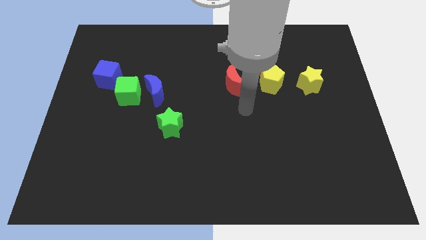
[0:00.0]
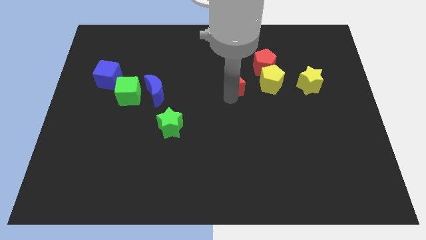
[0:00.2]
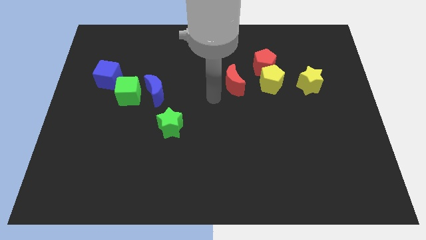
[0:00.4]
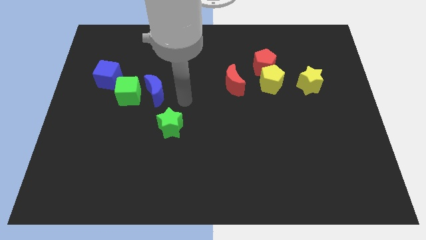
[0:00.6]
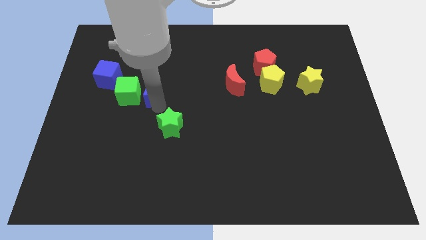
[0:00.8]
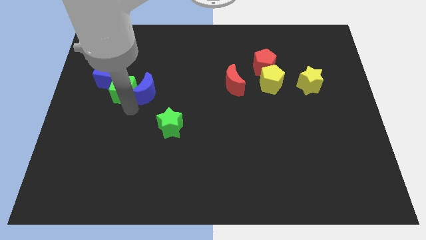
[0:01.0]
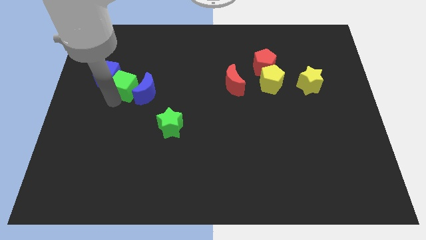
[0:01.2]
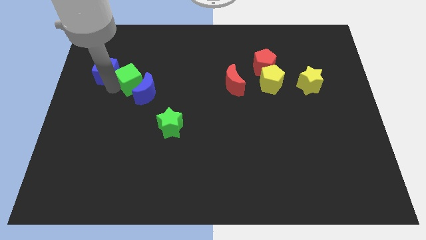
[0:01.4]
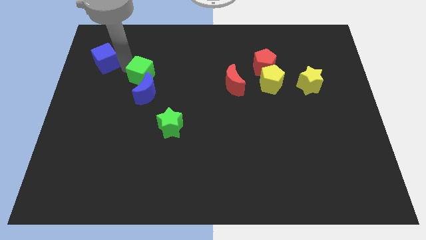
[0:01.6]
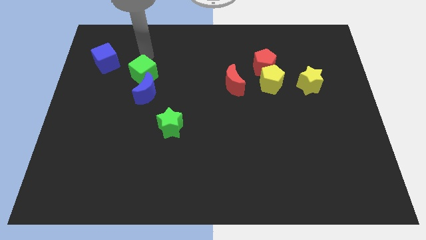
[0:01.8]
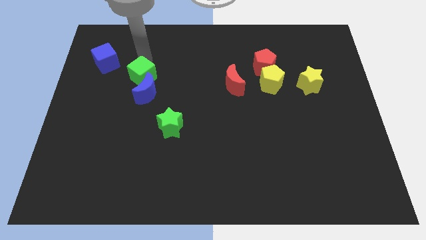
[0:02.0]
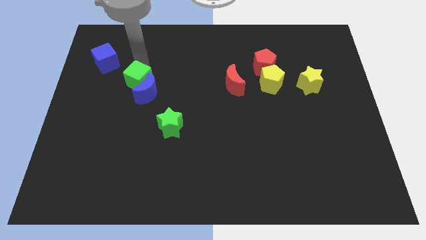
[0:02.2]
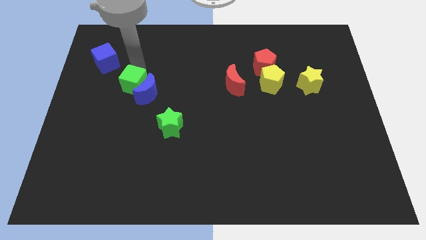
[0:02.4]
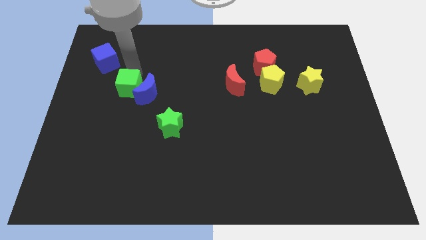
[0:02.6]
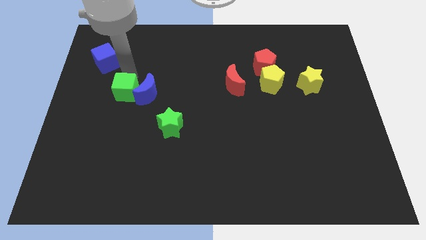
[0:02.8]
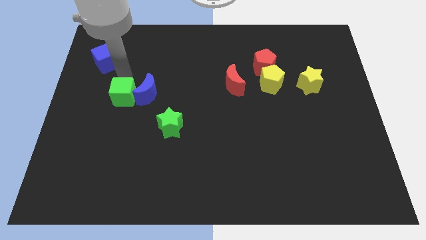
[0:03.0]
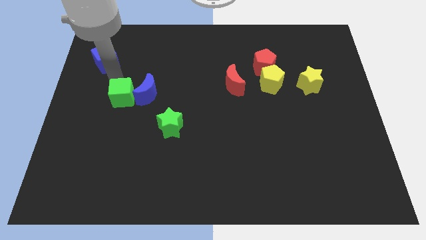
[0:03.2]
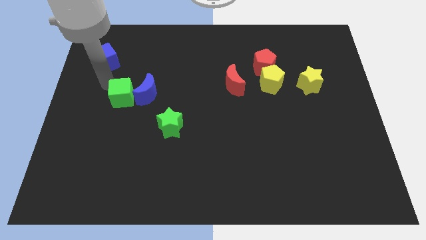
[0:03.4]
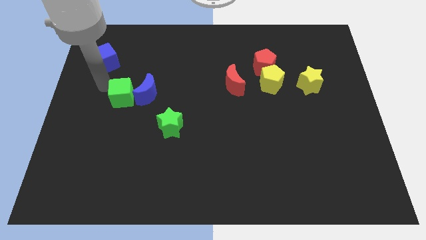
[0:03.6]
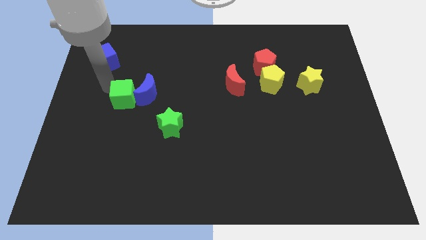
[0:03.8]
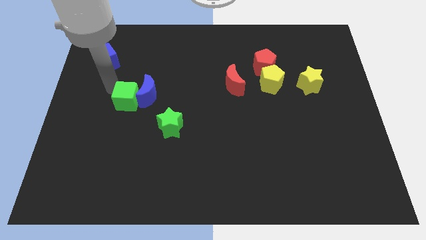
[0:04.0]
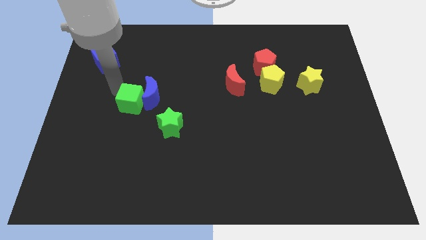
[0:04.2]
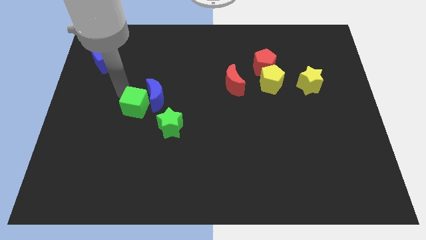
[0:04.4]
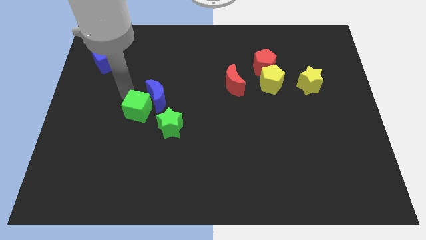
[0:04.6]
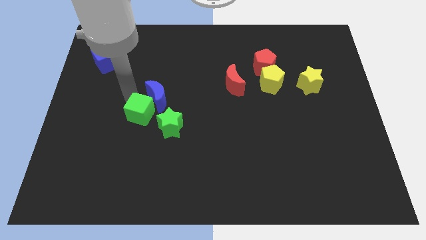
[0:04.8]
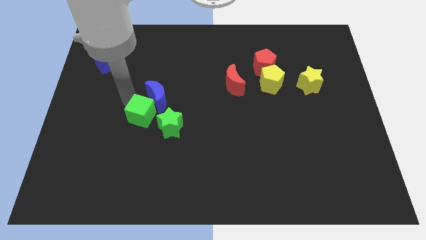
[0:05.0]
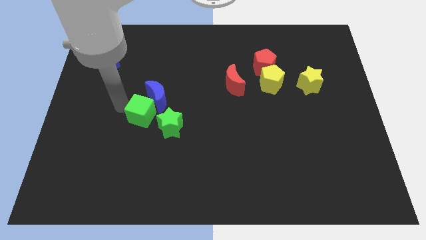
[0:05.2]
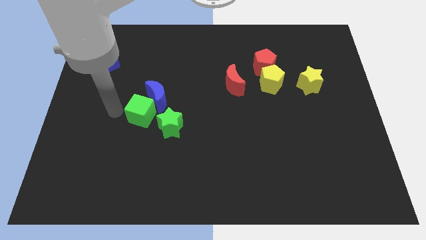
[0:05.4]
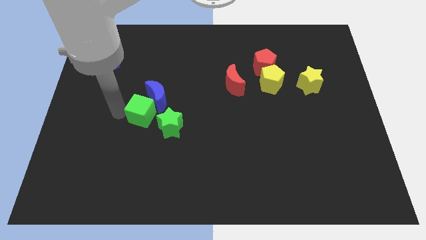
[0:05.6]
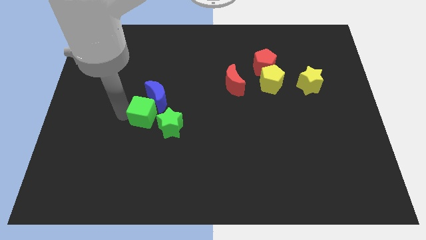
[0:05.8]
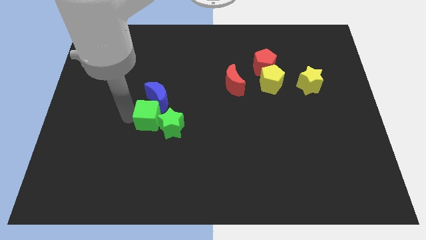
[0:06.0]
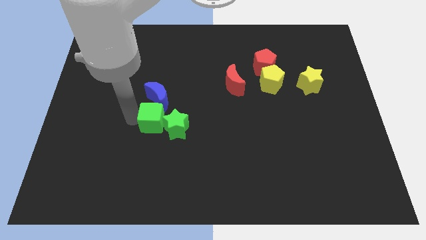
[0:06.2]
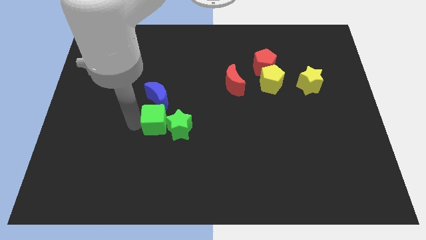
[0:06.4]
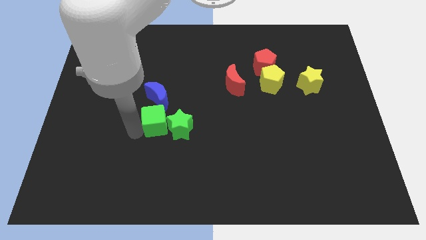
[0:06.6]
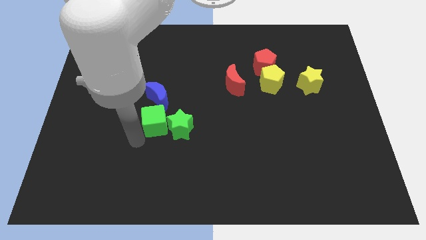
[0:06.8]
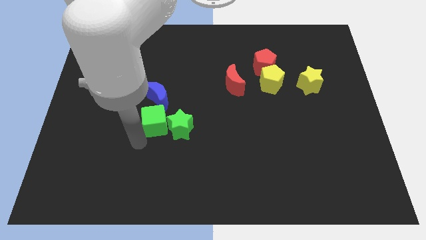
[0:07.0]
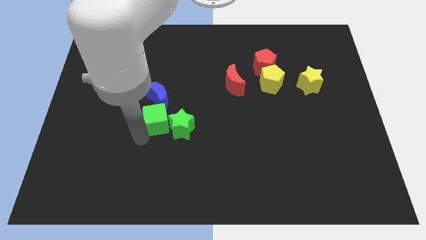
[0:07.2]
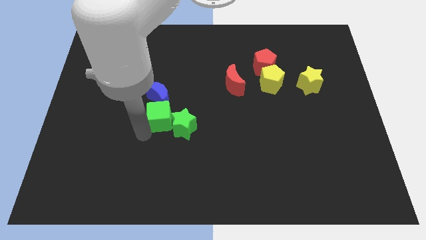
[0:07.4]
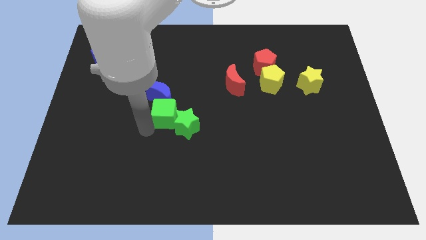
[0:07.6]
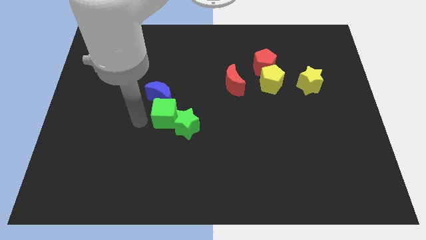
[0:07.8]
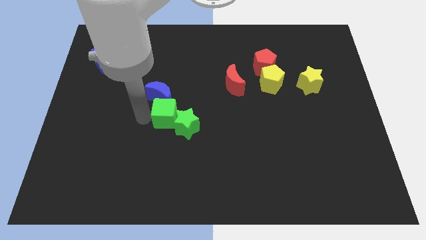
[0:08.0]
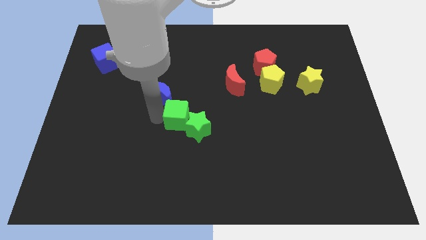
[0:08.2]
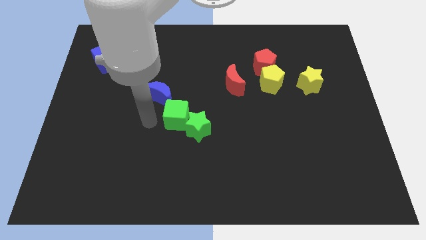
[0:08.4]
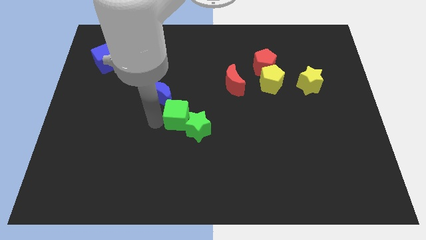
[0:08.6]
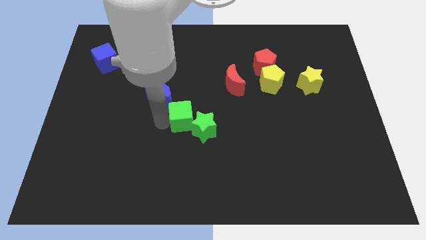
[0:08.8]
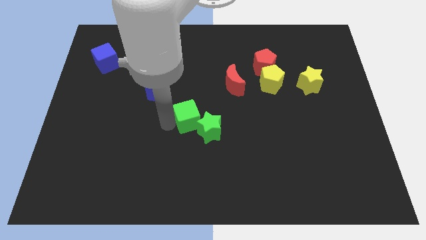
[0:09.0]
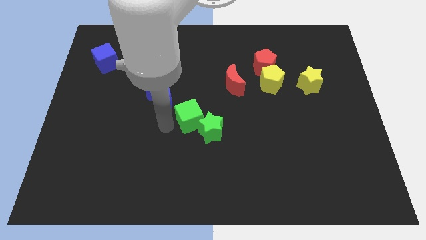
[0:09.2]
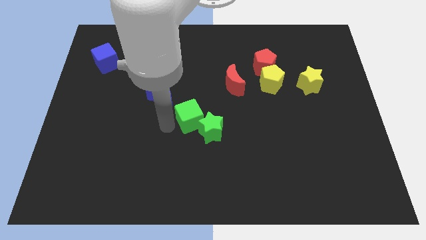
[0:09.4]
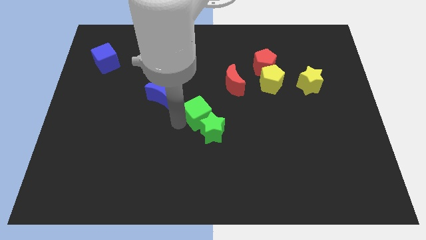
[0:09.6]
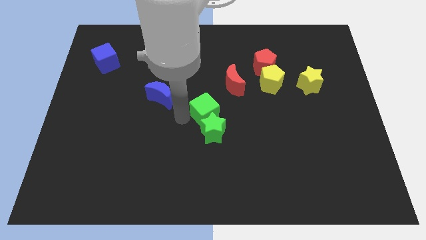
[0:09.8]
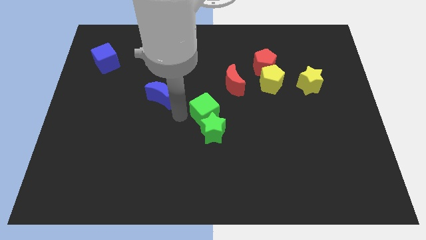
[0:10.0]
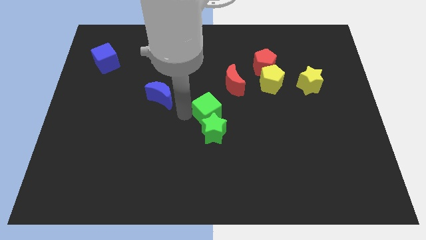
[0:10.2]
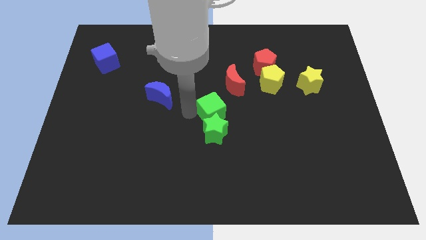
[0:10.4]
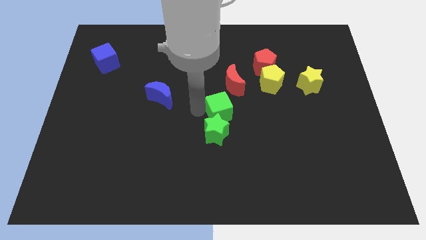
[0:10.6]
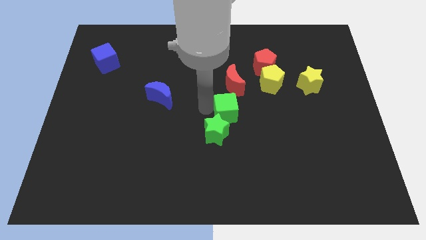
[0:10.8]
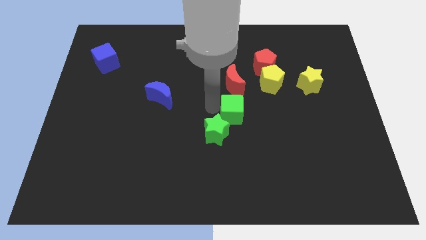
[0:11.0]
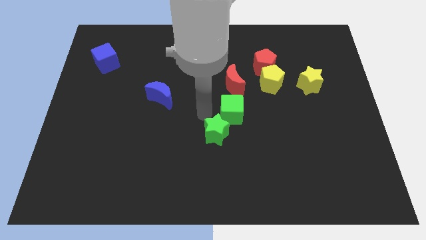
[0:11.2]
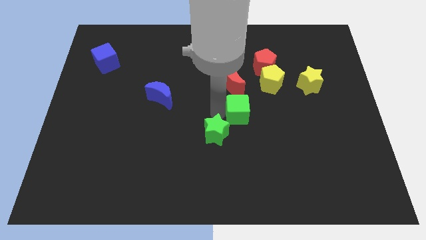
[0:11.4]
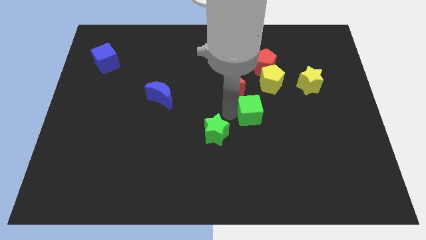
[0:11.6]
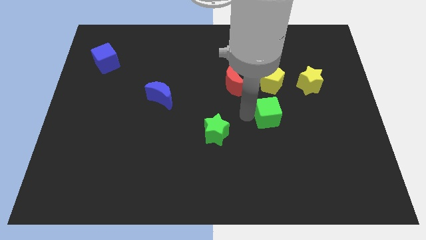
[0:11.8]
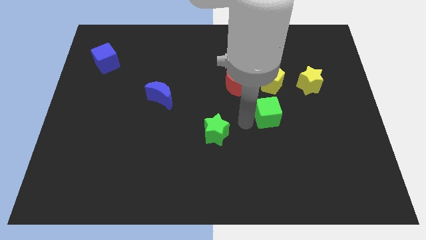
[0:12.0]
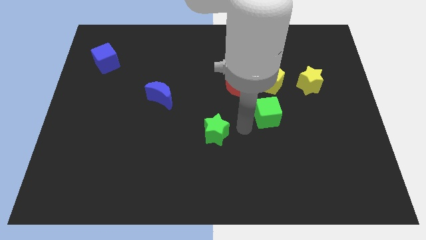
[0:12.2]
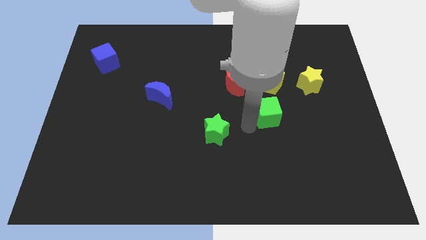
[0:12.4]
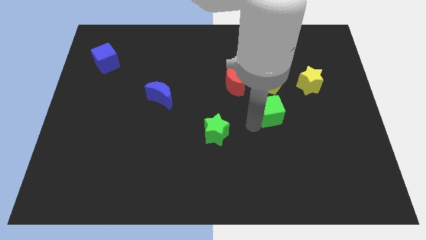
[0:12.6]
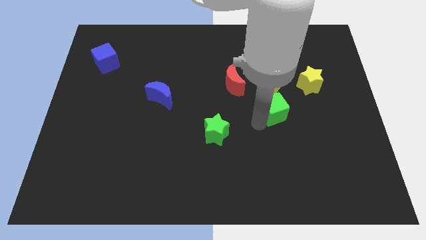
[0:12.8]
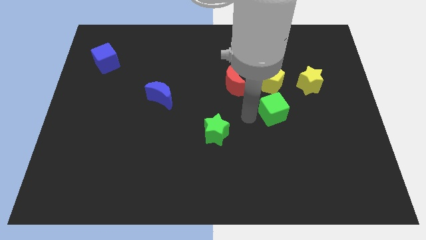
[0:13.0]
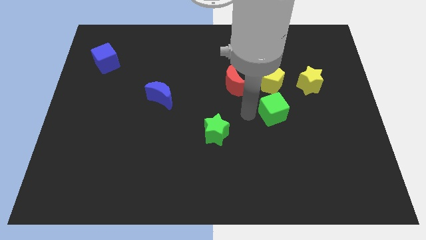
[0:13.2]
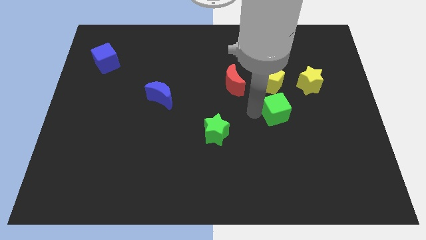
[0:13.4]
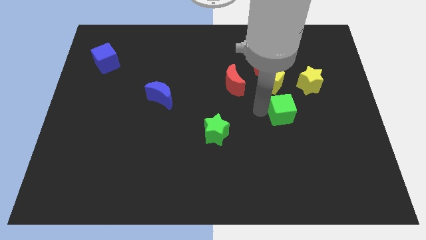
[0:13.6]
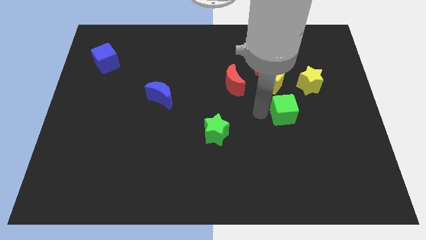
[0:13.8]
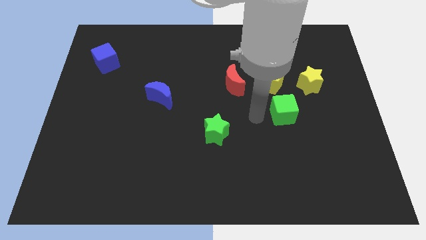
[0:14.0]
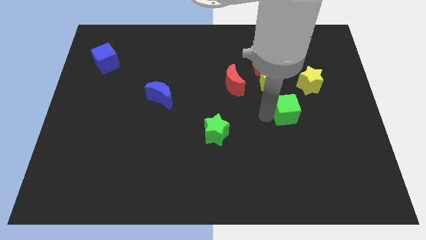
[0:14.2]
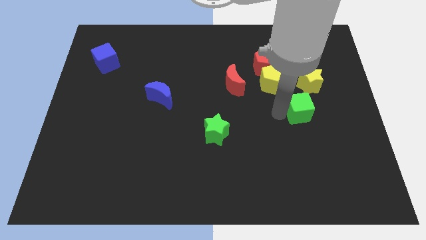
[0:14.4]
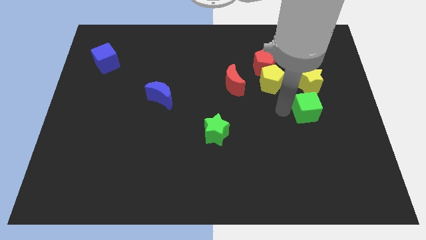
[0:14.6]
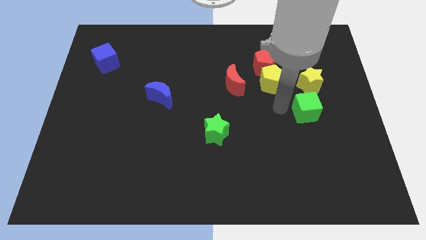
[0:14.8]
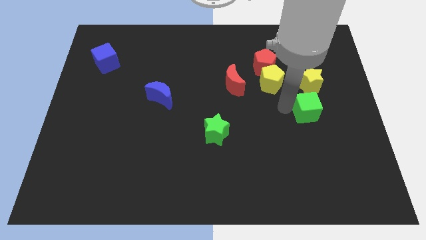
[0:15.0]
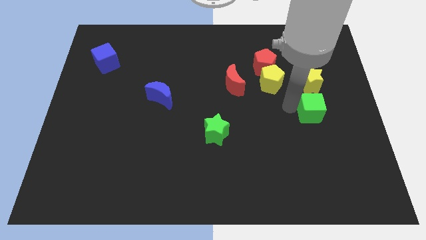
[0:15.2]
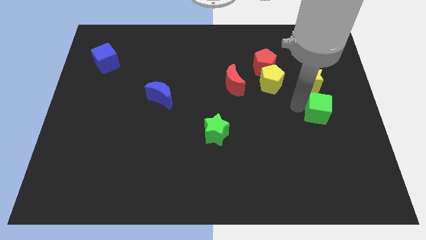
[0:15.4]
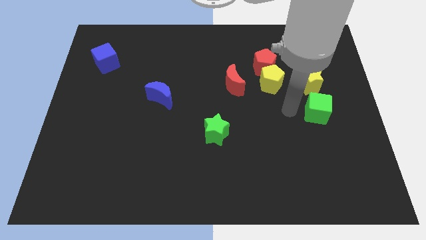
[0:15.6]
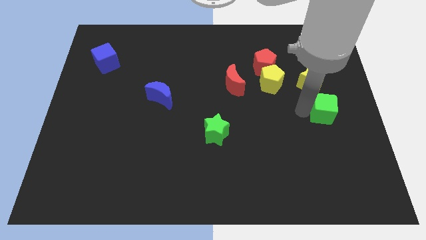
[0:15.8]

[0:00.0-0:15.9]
put the green cube to the right side
